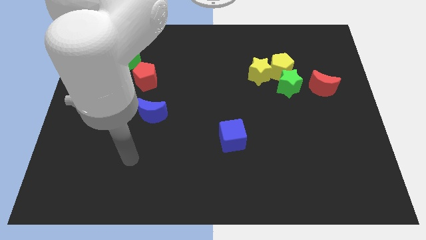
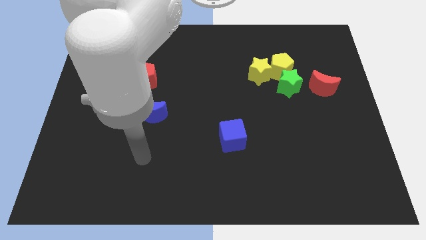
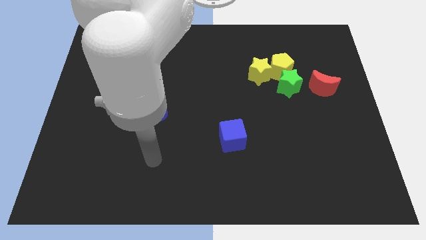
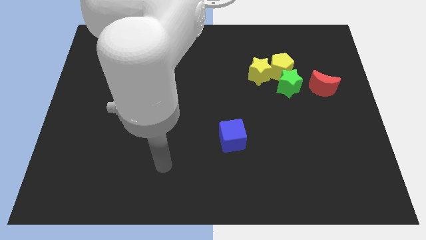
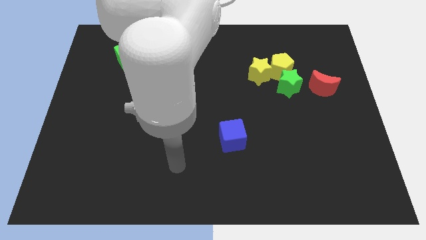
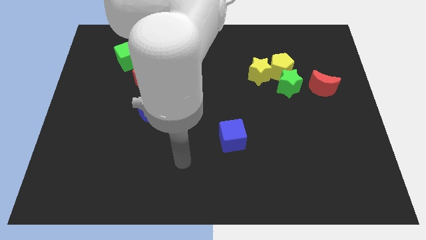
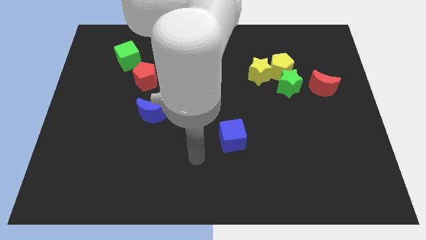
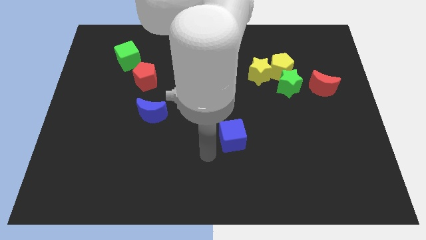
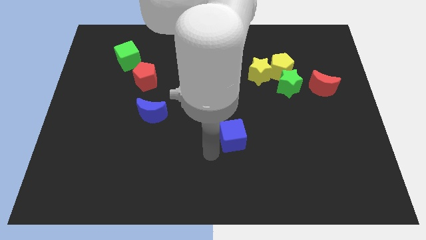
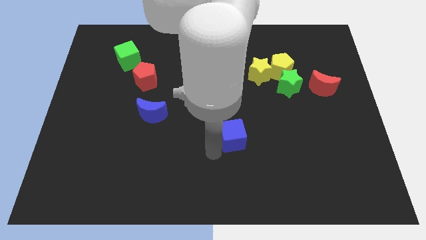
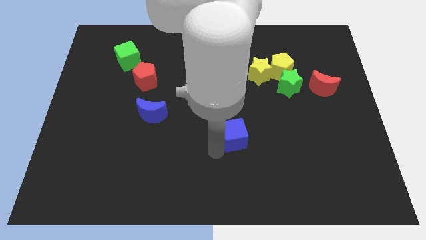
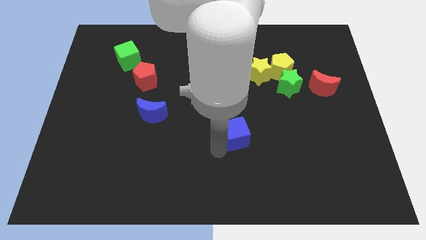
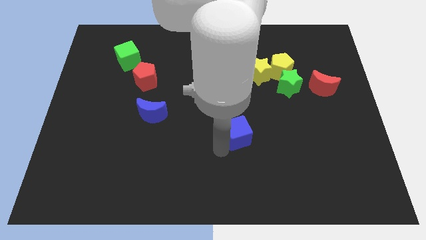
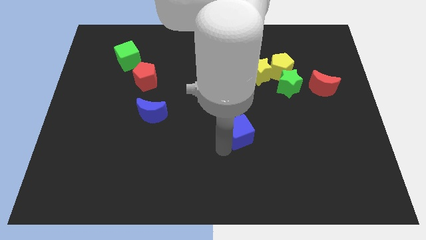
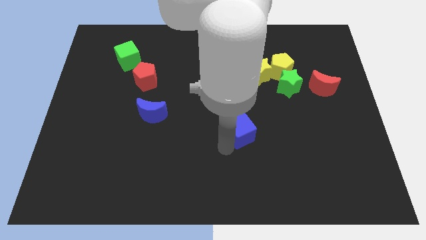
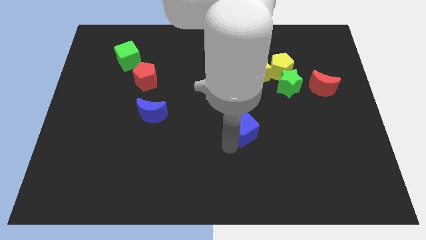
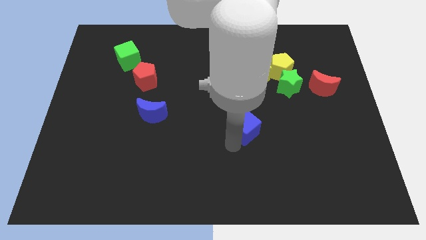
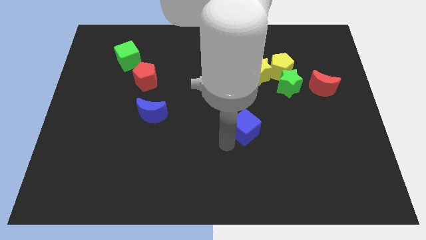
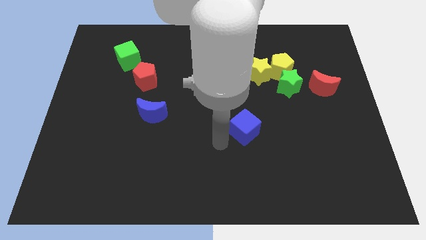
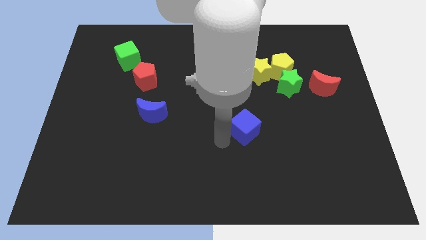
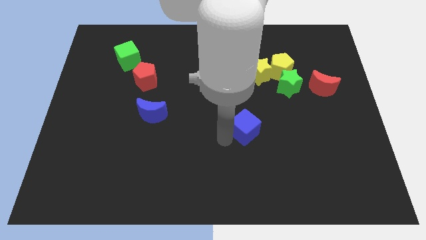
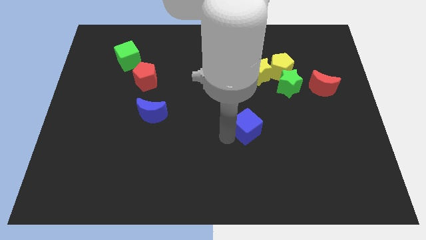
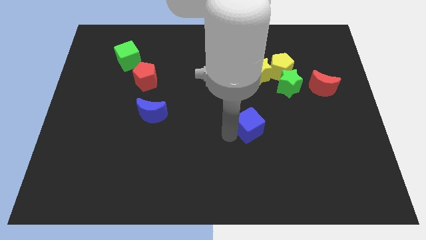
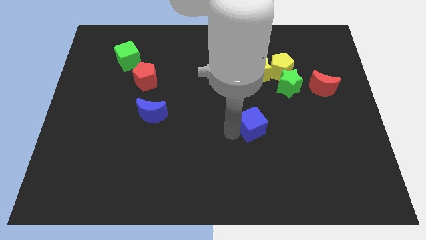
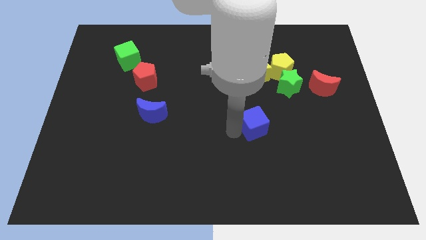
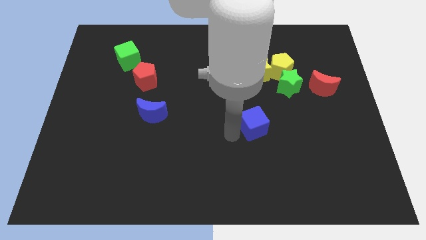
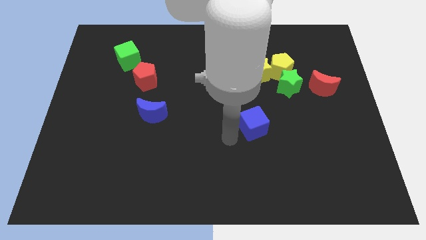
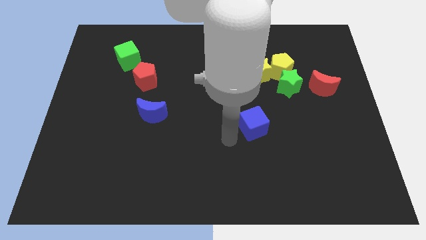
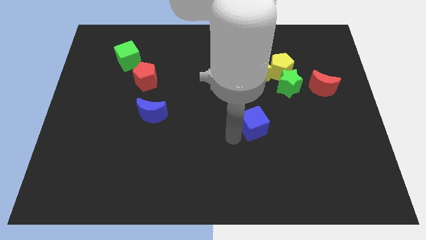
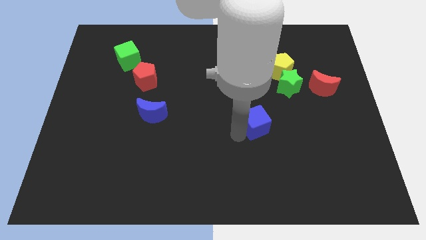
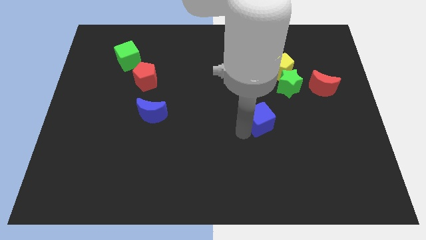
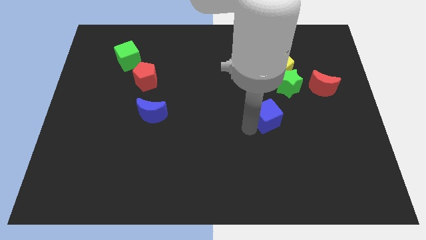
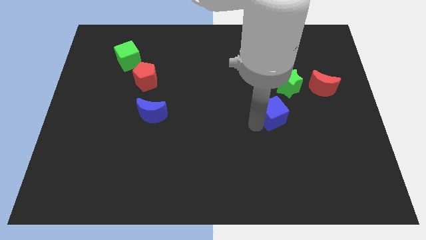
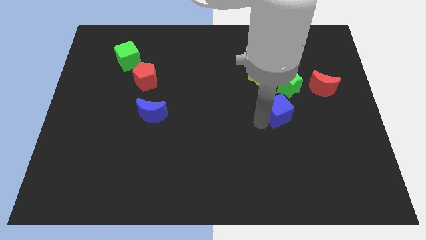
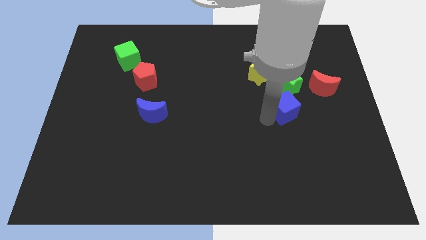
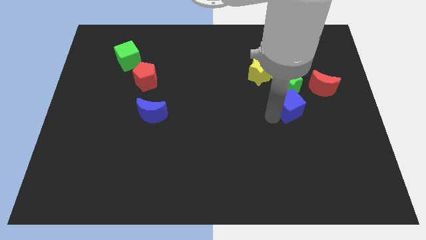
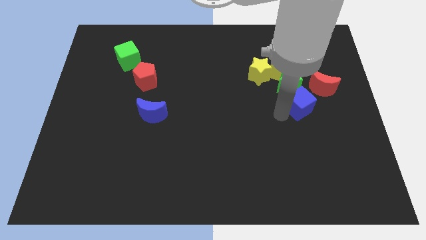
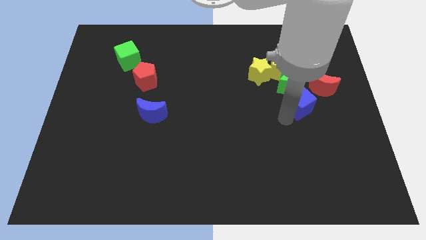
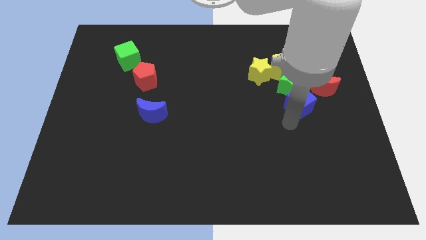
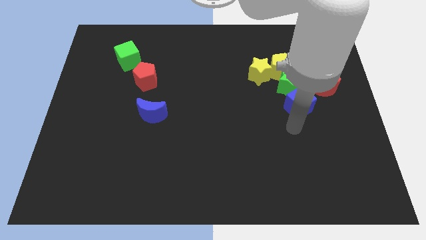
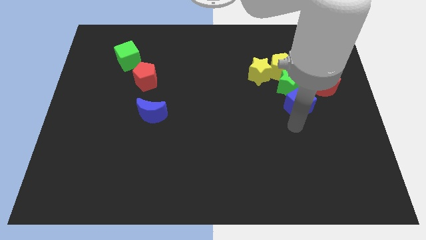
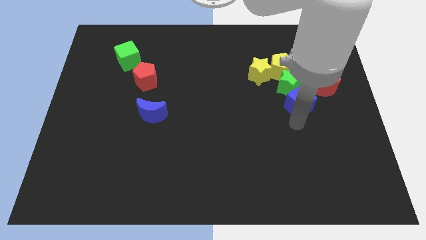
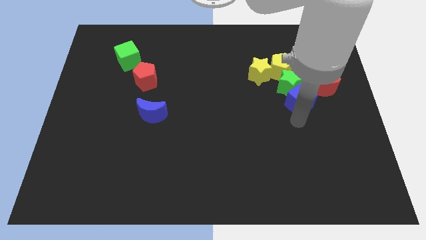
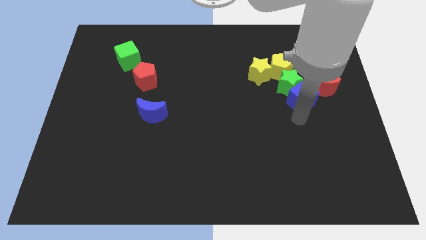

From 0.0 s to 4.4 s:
slide the blue cube to the bottom right of the yellow pentagon

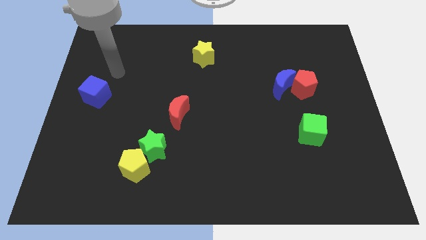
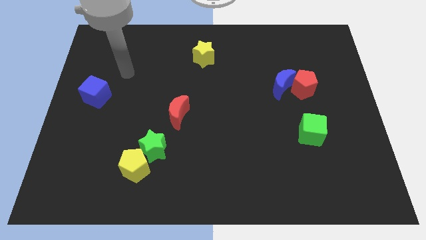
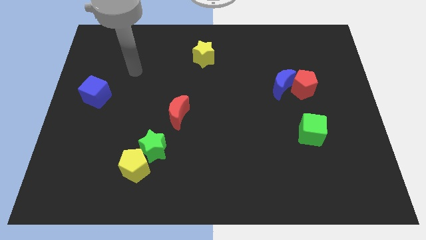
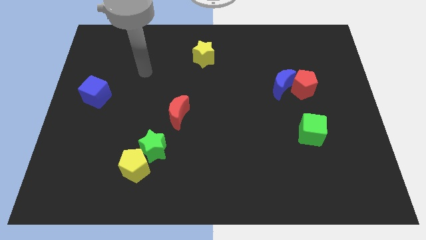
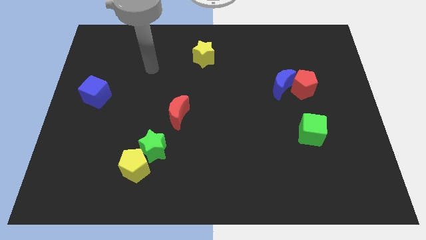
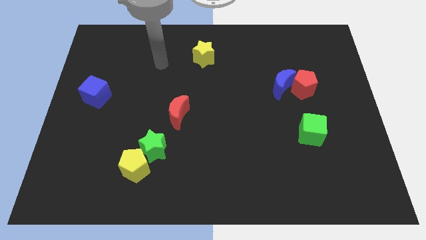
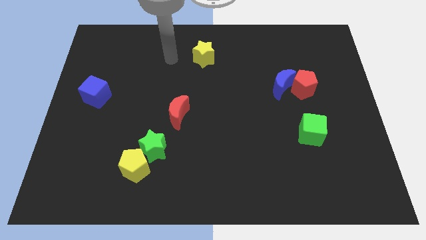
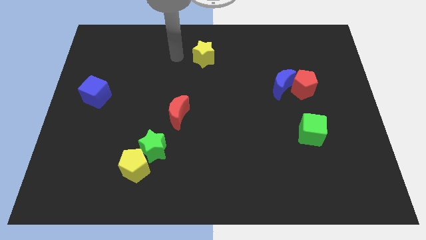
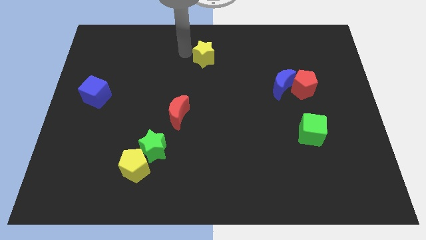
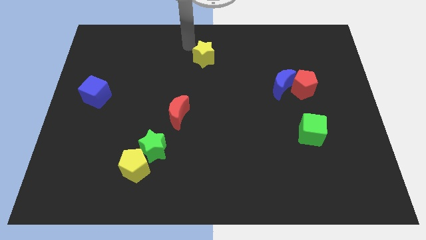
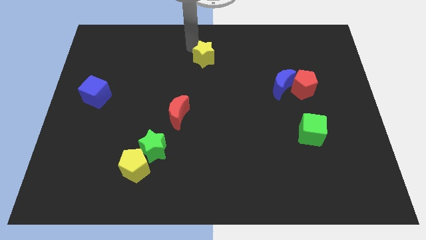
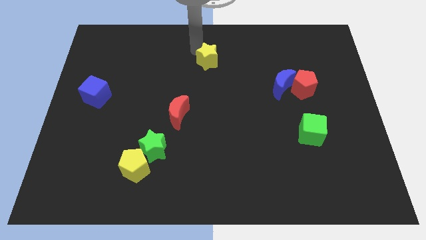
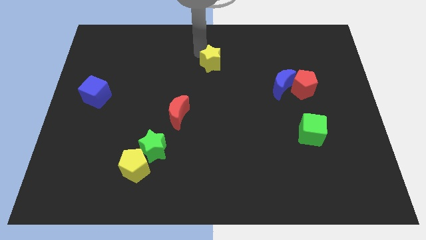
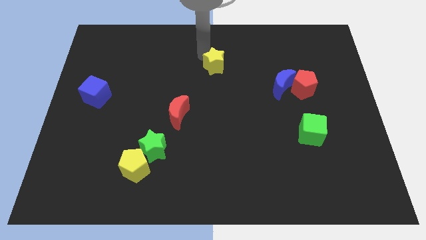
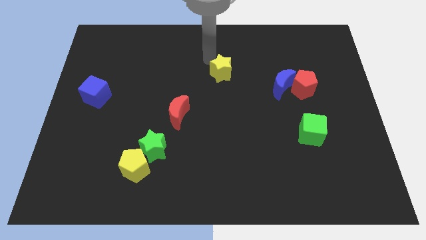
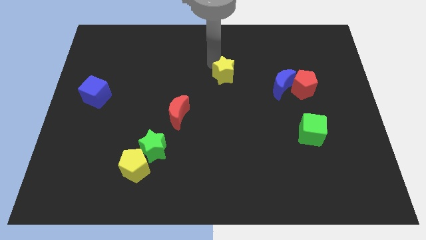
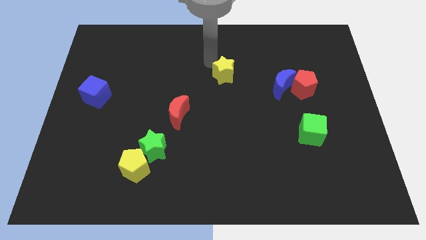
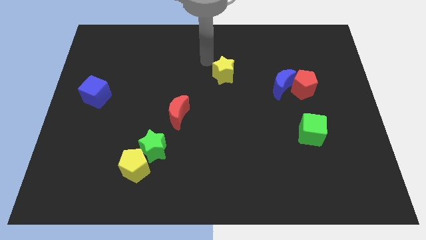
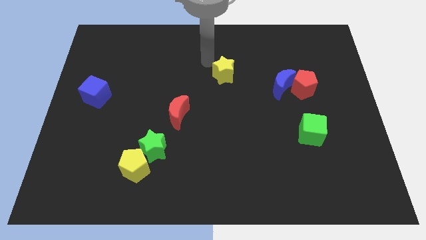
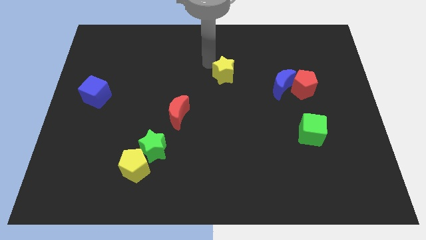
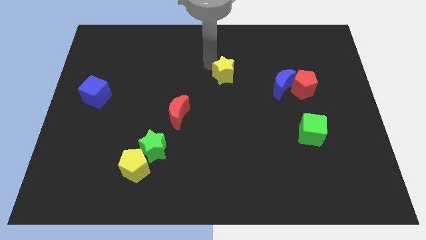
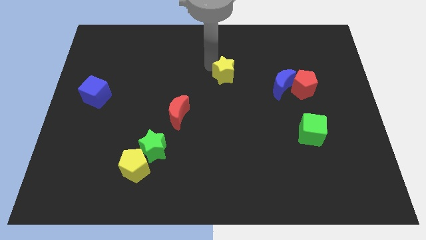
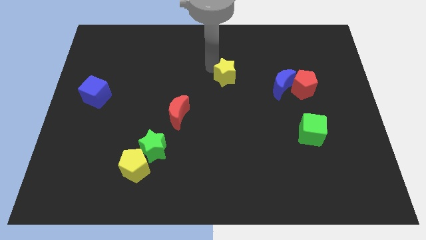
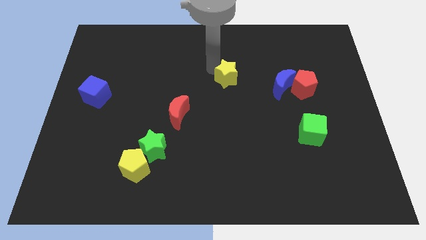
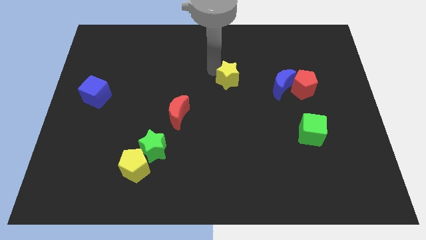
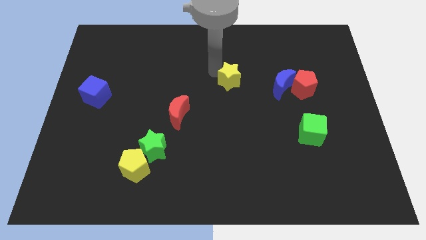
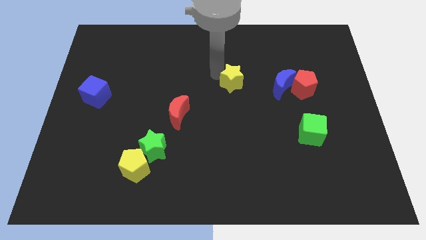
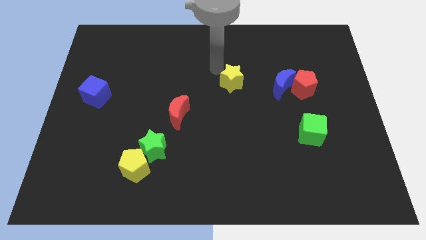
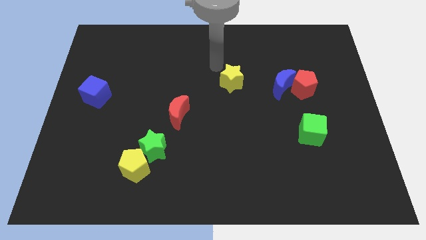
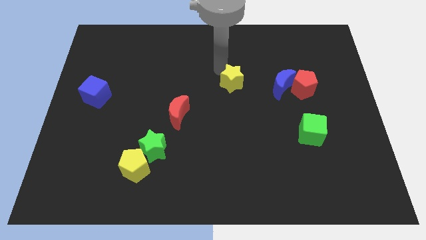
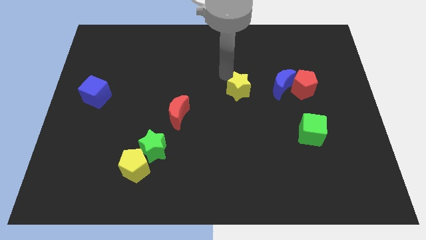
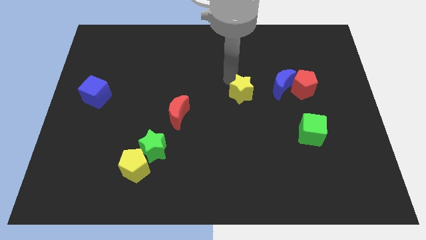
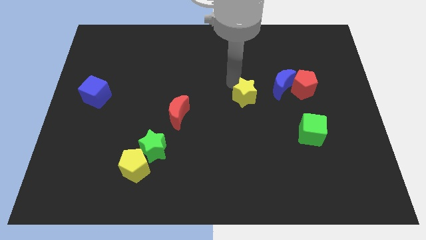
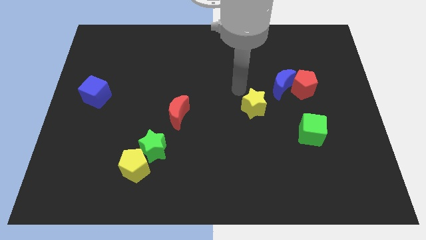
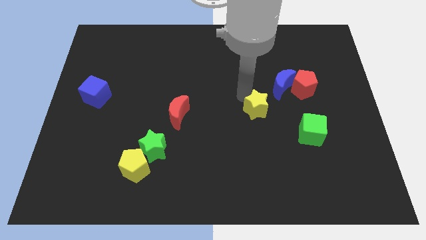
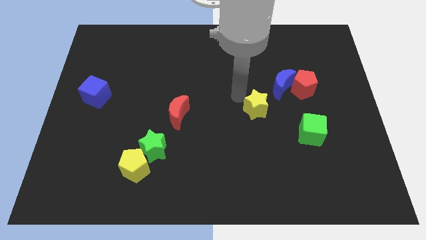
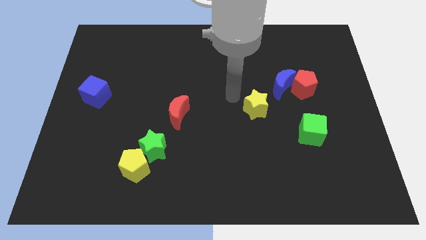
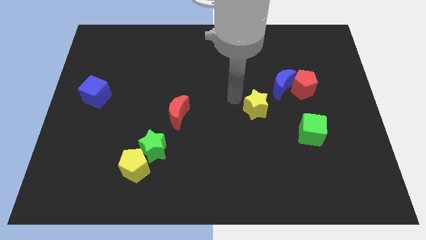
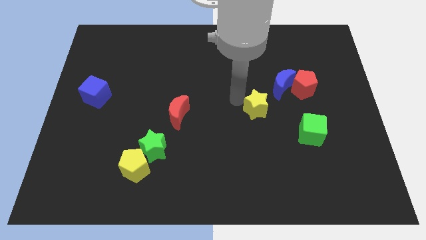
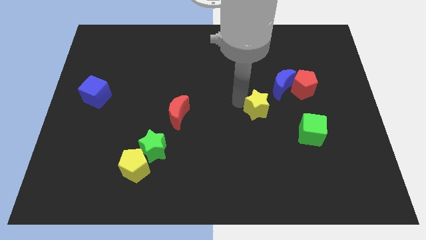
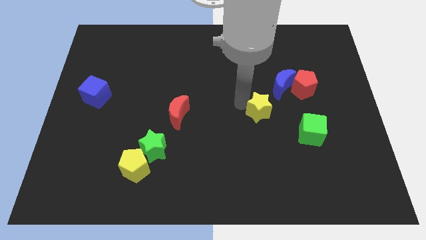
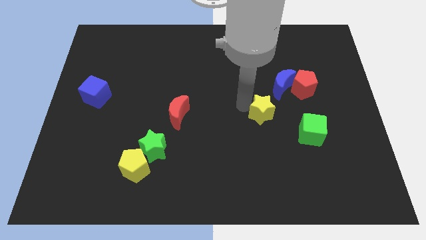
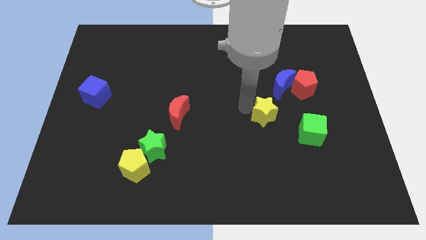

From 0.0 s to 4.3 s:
push the yellow star to the bottom of the blue moon
